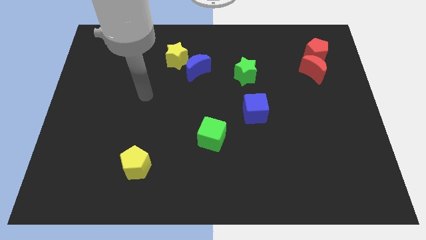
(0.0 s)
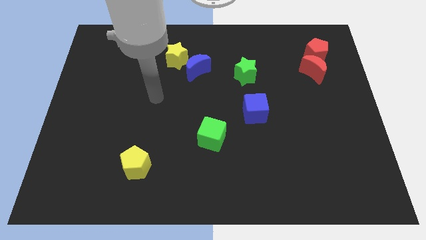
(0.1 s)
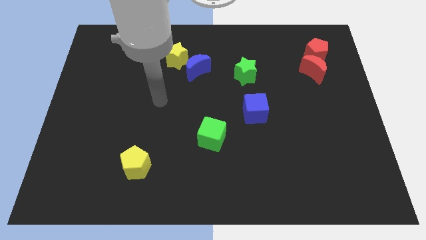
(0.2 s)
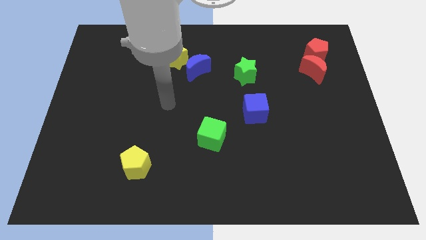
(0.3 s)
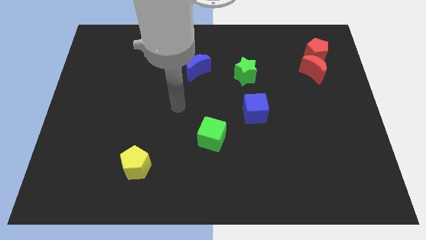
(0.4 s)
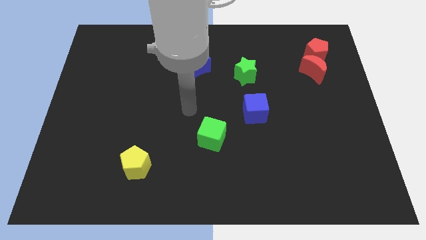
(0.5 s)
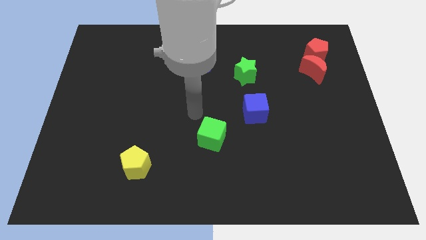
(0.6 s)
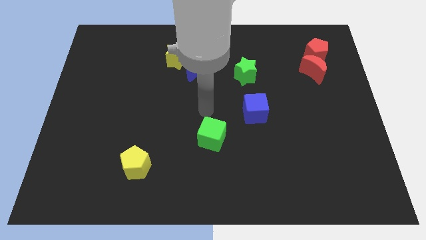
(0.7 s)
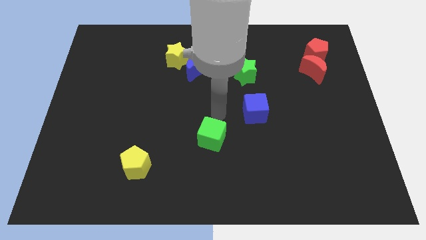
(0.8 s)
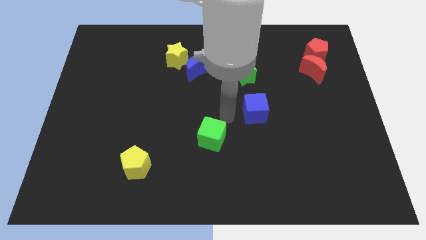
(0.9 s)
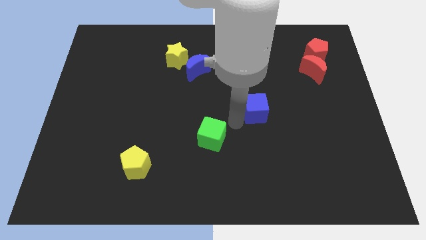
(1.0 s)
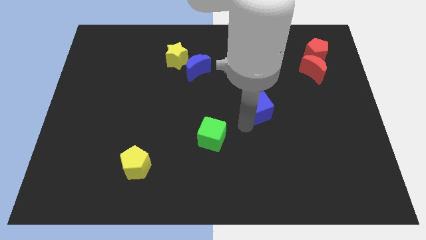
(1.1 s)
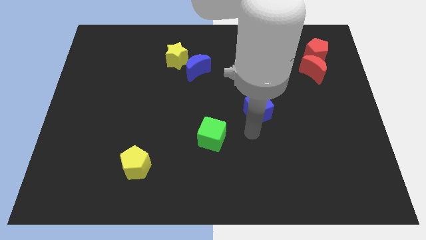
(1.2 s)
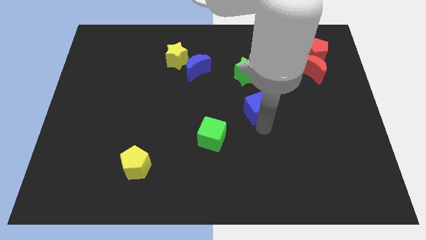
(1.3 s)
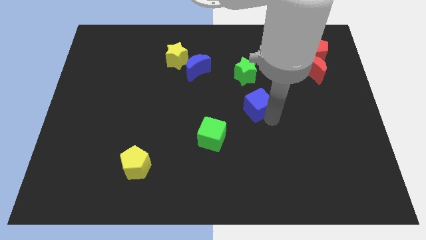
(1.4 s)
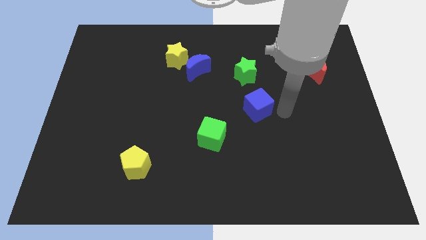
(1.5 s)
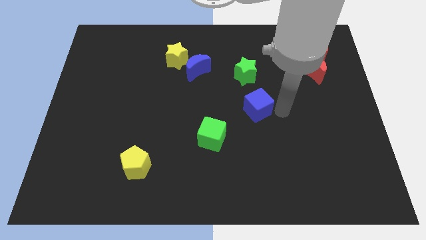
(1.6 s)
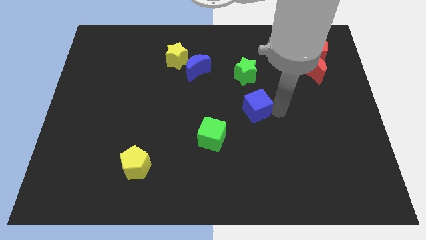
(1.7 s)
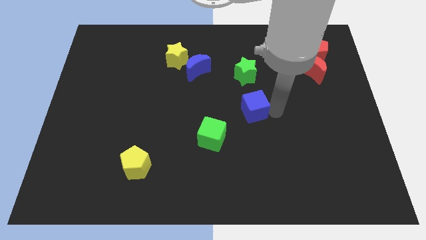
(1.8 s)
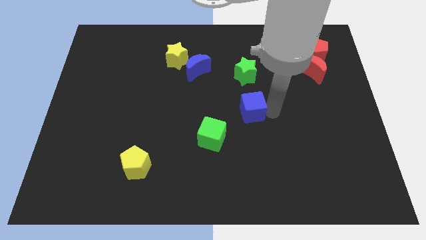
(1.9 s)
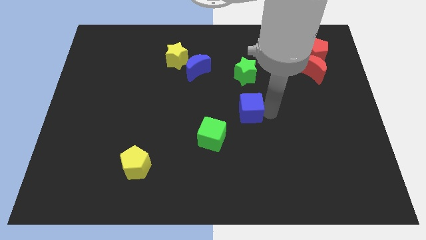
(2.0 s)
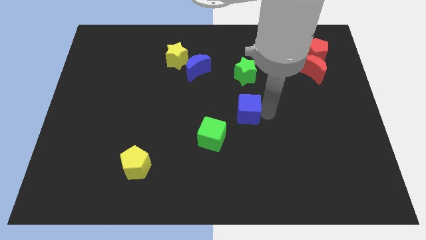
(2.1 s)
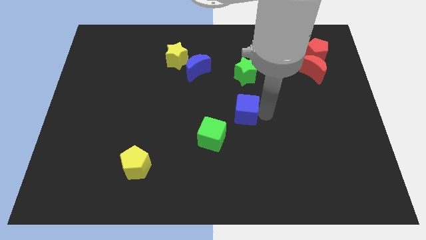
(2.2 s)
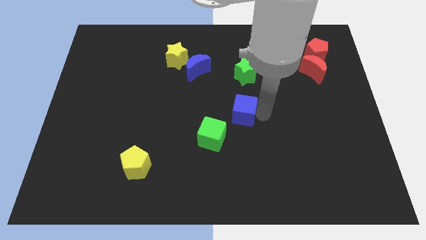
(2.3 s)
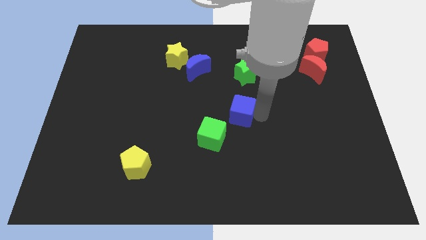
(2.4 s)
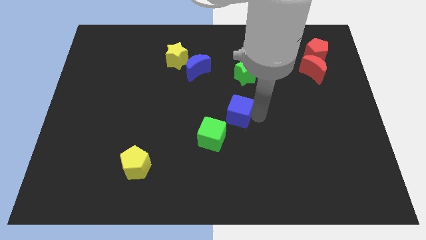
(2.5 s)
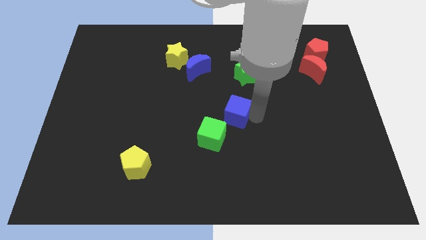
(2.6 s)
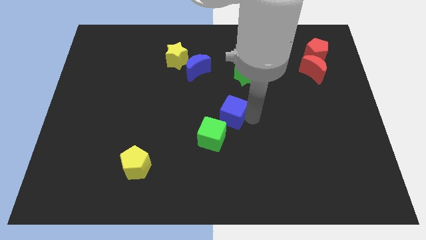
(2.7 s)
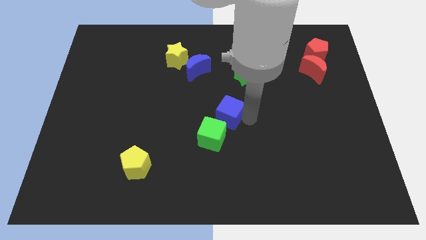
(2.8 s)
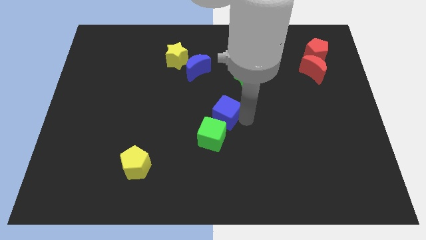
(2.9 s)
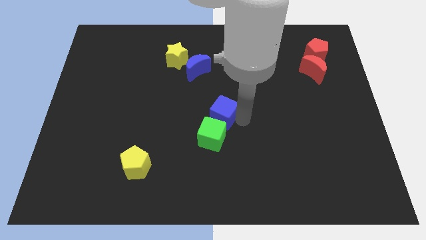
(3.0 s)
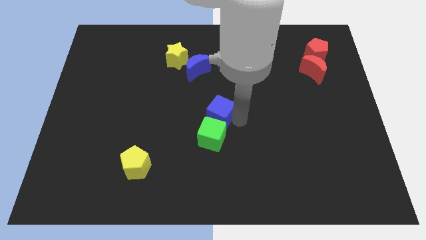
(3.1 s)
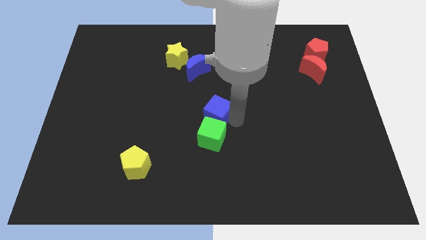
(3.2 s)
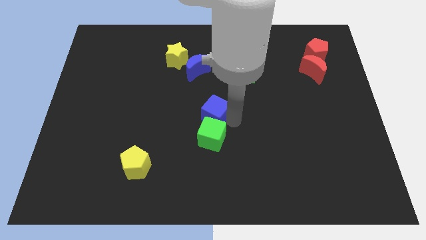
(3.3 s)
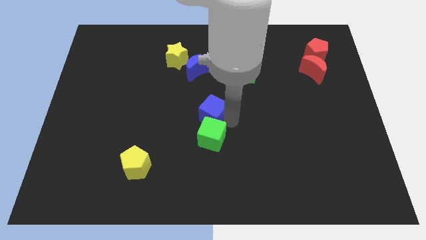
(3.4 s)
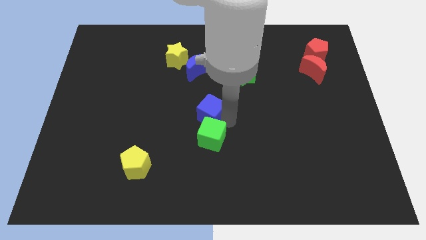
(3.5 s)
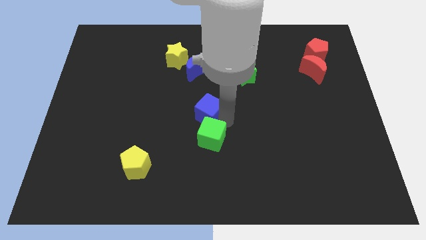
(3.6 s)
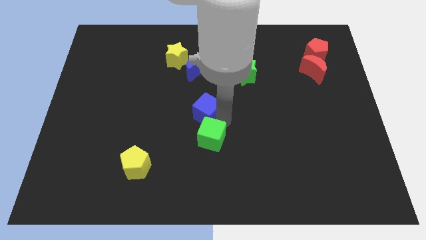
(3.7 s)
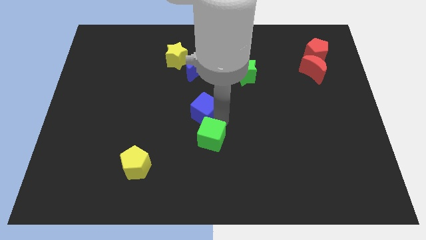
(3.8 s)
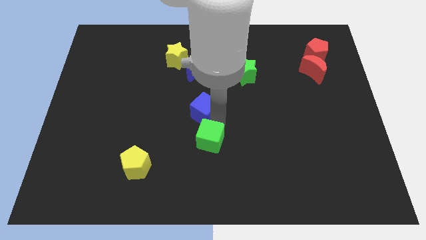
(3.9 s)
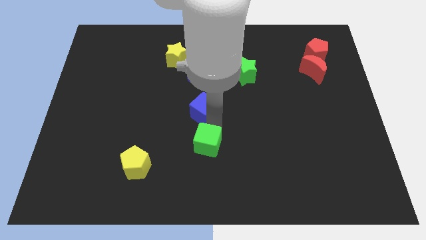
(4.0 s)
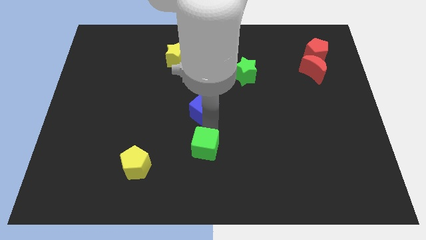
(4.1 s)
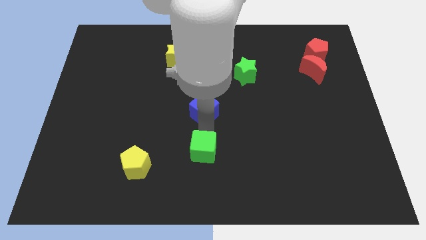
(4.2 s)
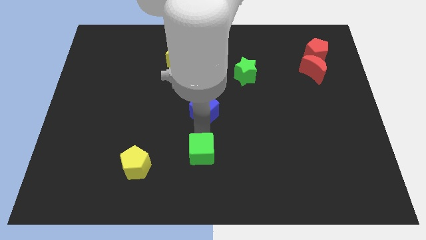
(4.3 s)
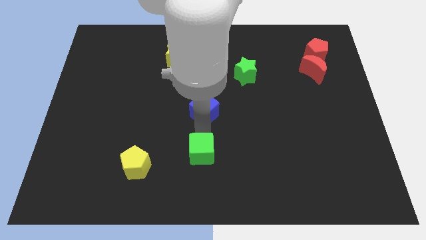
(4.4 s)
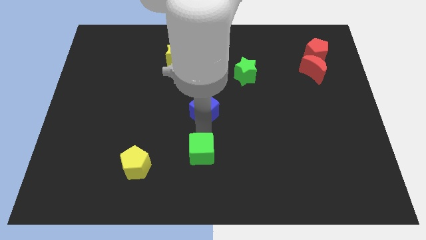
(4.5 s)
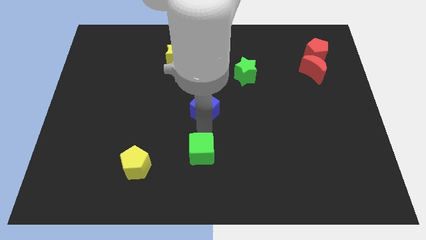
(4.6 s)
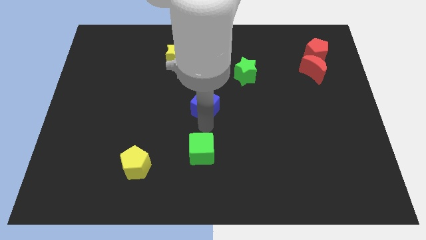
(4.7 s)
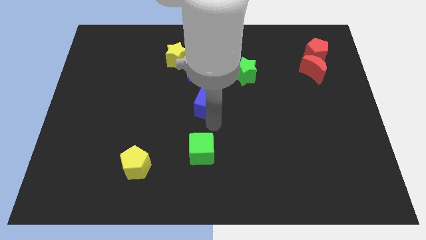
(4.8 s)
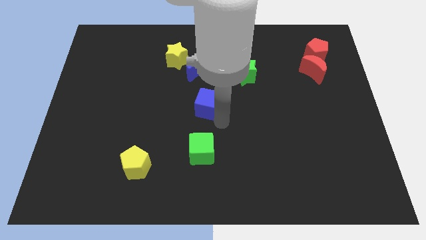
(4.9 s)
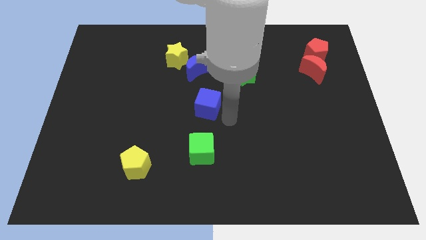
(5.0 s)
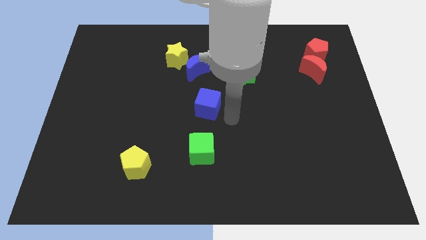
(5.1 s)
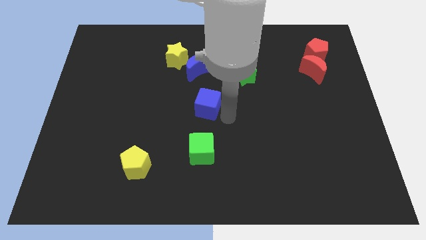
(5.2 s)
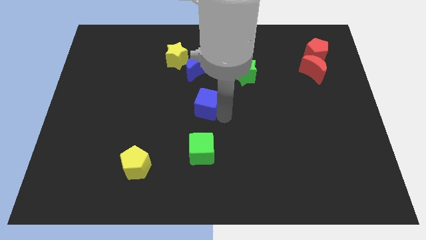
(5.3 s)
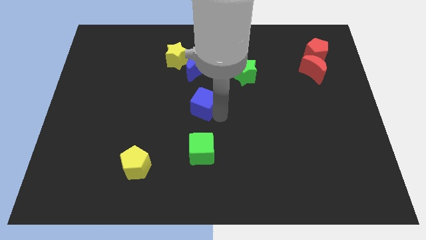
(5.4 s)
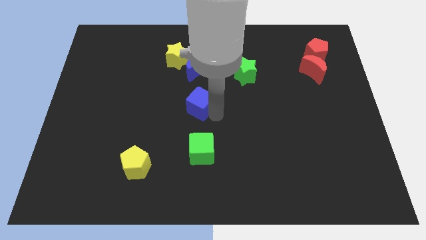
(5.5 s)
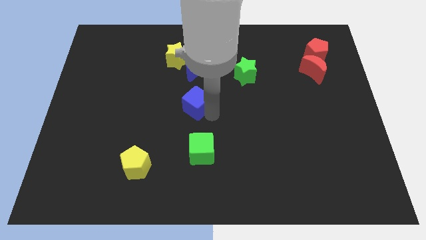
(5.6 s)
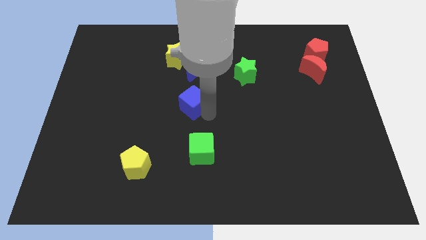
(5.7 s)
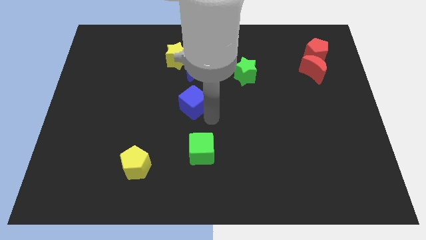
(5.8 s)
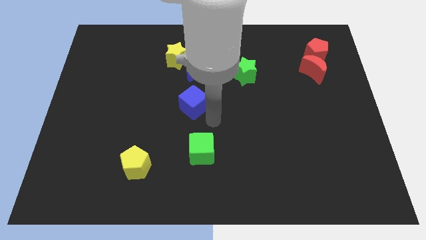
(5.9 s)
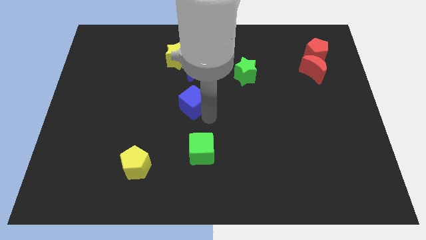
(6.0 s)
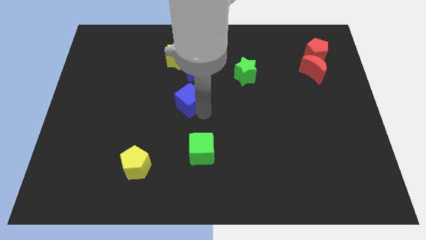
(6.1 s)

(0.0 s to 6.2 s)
move the blue cube to the bottom side of the yellow star

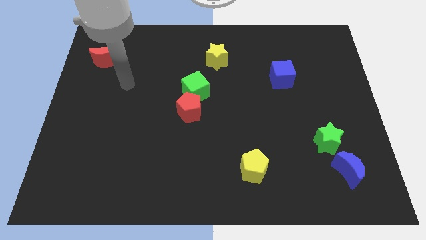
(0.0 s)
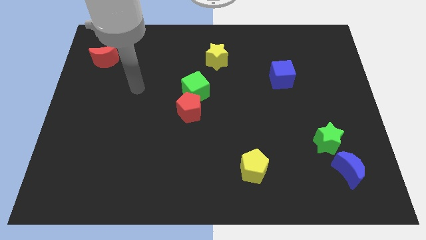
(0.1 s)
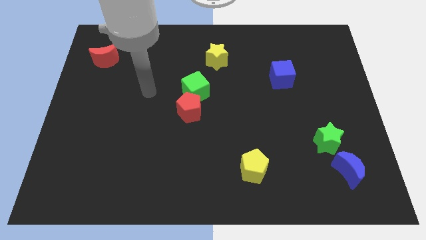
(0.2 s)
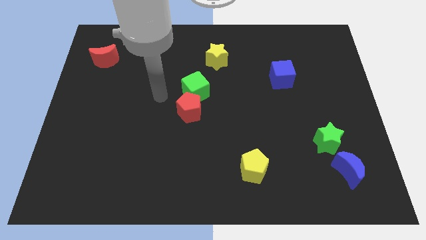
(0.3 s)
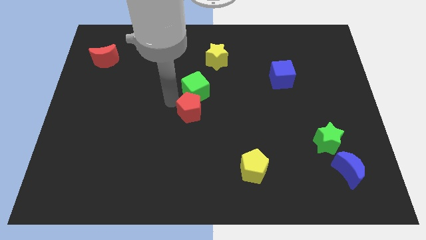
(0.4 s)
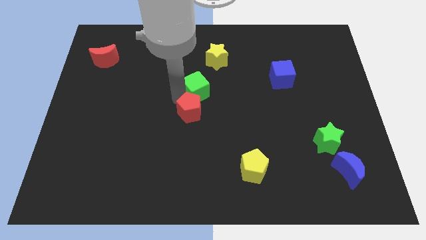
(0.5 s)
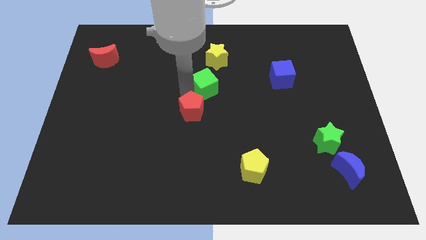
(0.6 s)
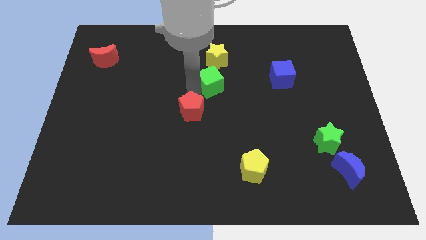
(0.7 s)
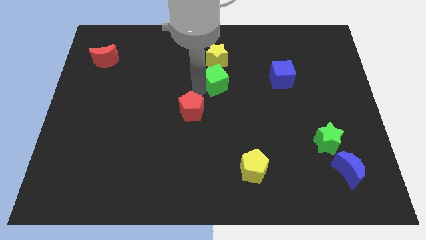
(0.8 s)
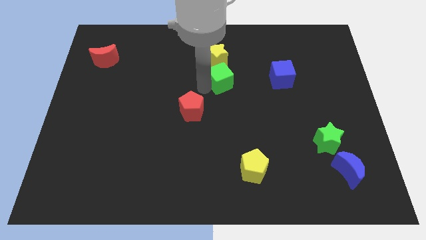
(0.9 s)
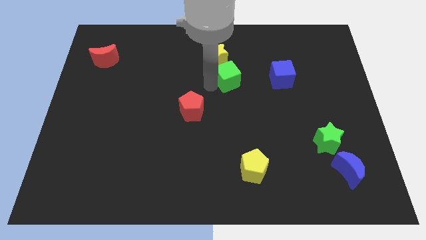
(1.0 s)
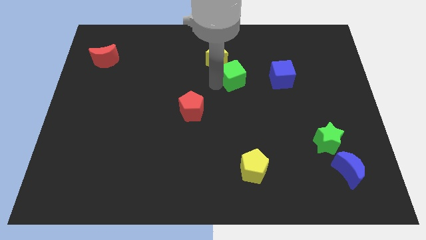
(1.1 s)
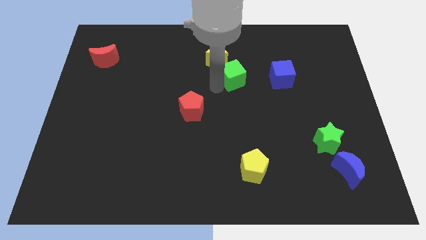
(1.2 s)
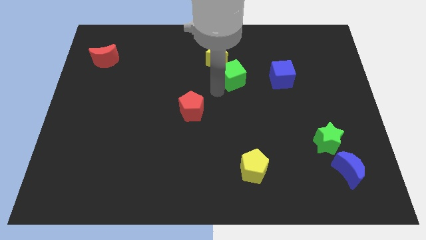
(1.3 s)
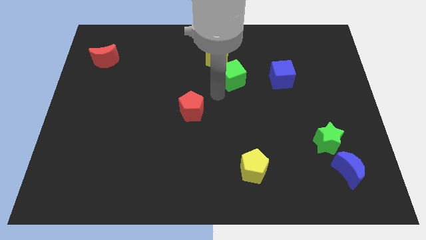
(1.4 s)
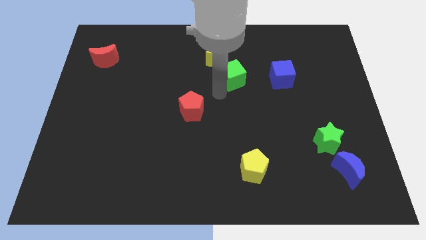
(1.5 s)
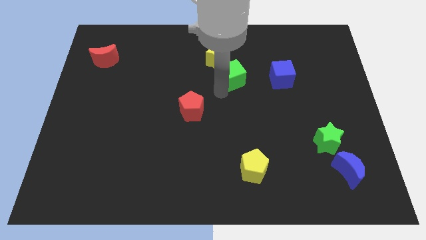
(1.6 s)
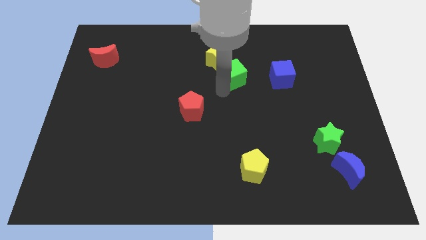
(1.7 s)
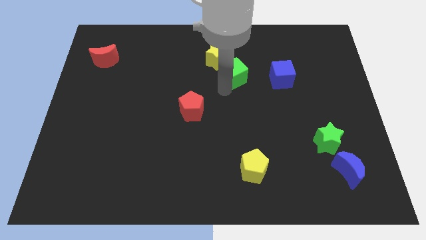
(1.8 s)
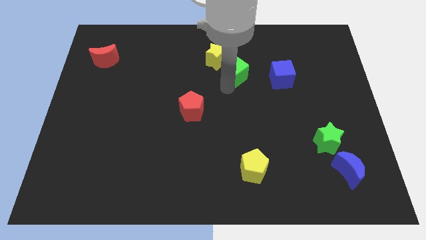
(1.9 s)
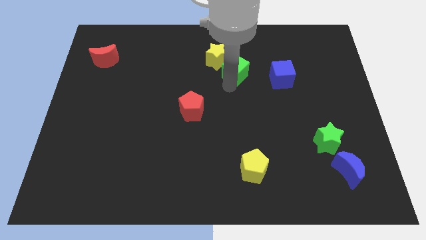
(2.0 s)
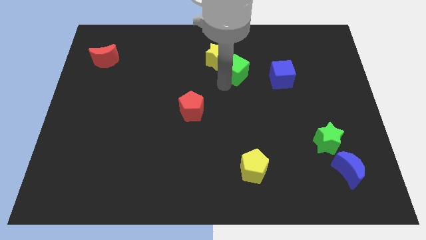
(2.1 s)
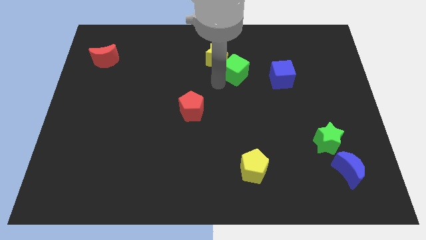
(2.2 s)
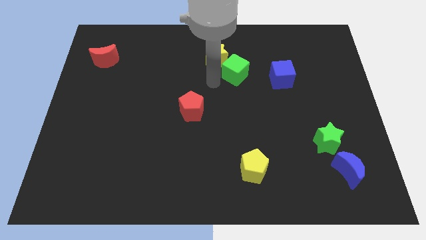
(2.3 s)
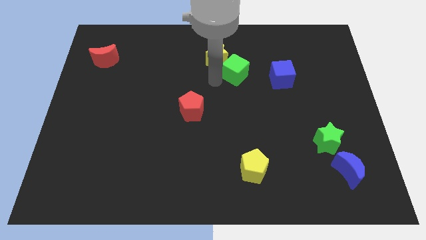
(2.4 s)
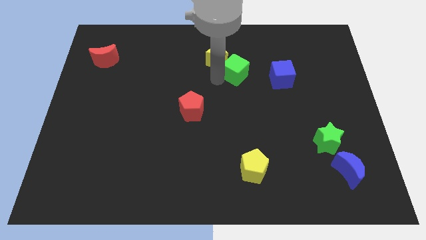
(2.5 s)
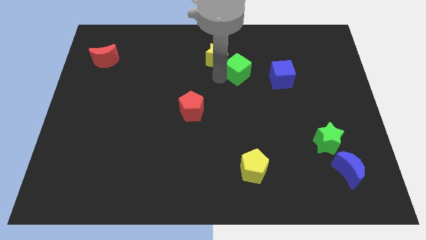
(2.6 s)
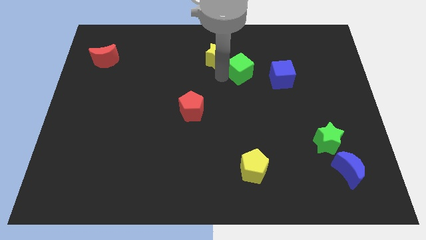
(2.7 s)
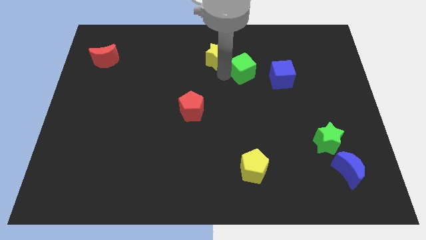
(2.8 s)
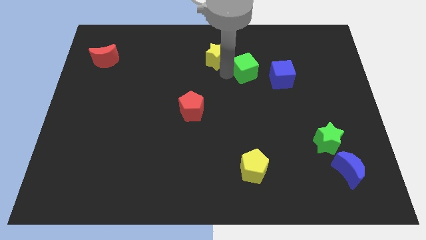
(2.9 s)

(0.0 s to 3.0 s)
put the green cube to the top left of the blue cube
